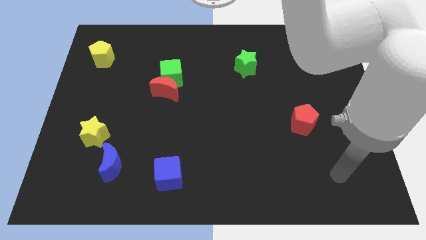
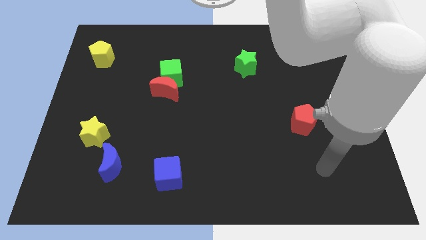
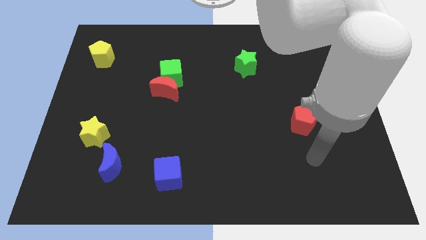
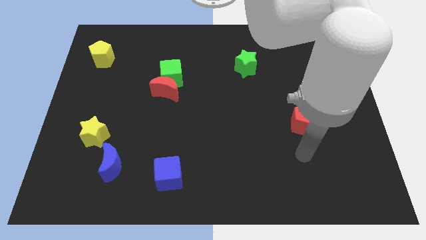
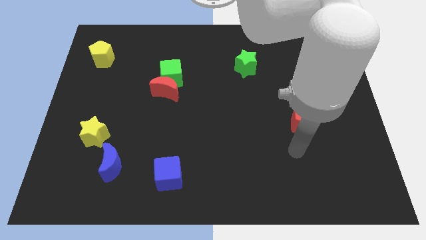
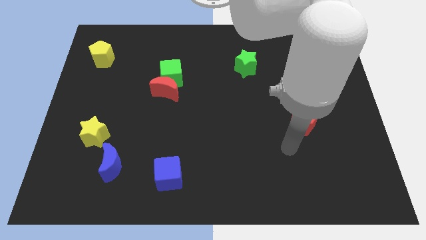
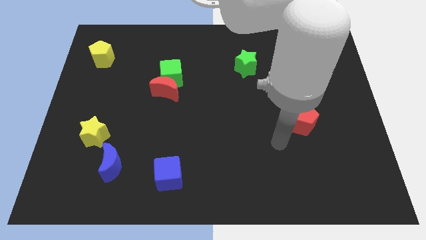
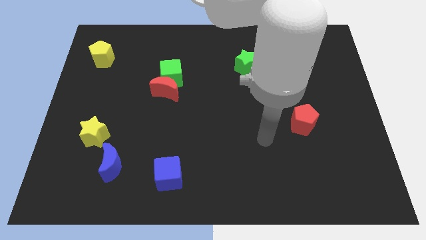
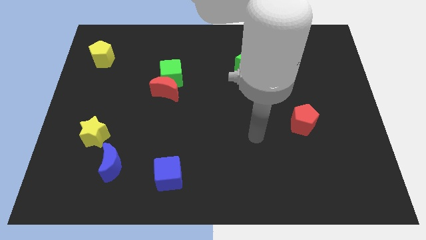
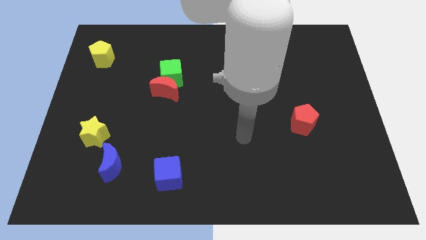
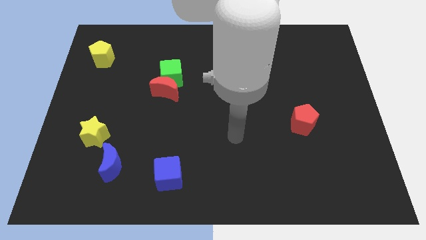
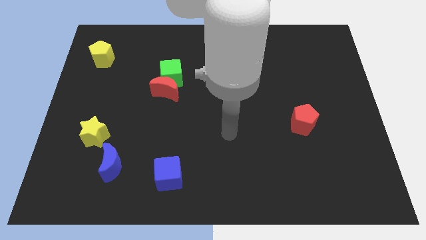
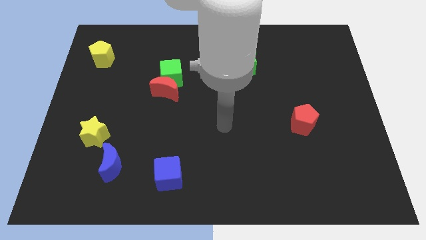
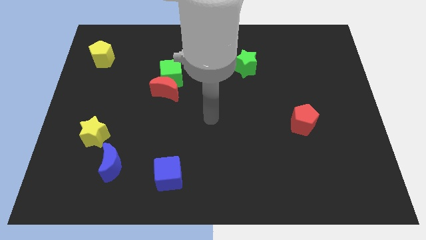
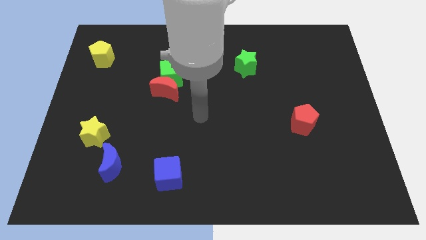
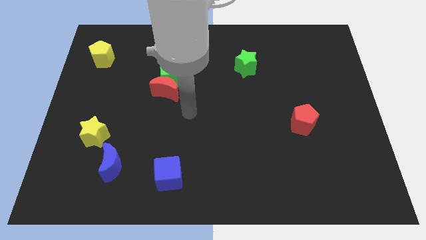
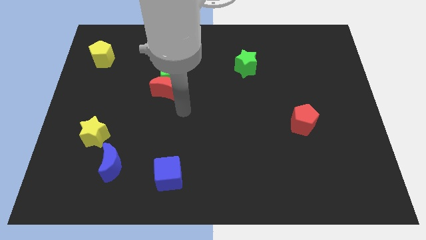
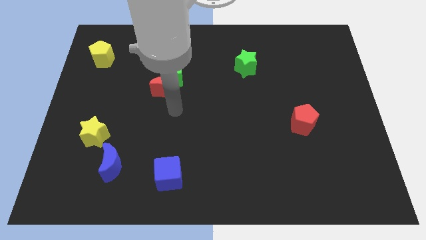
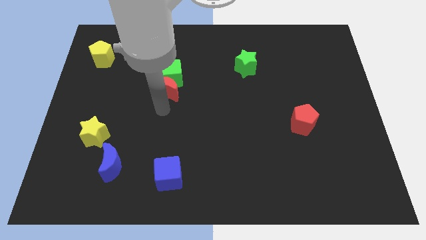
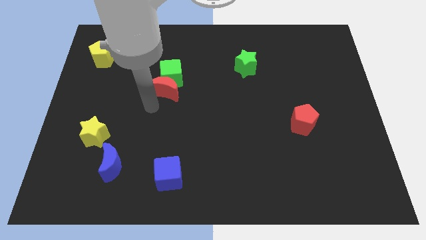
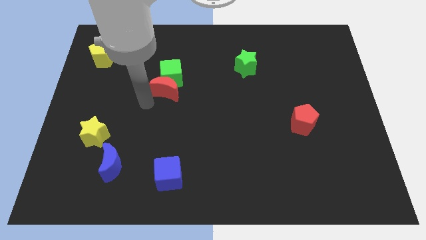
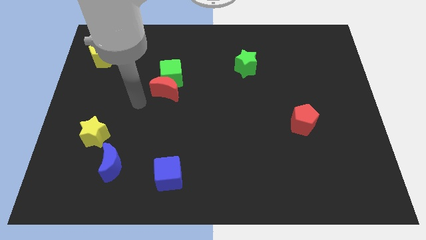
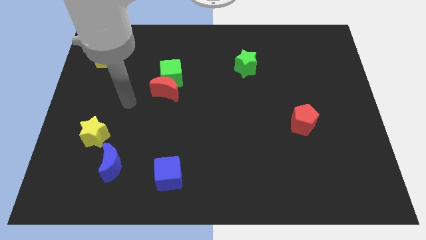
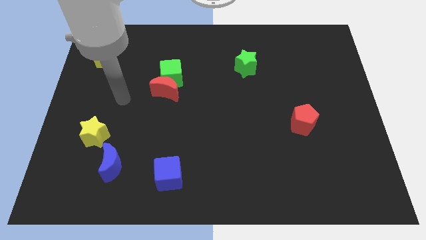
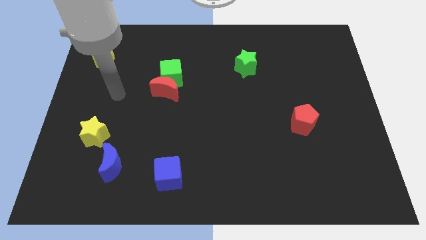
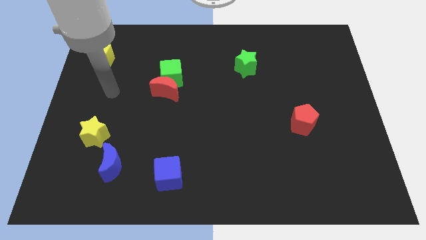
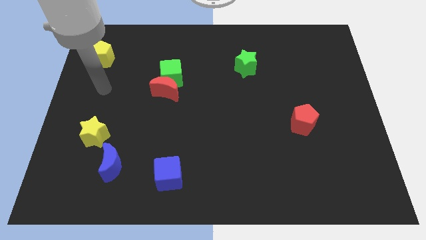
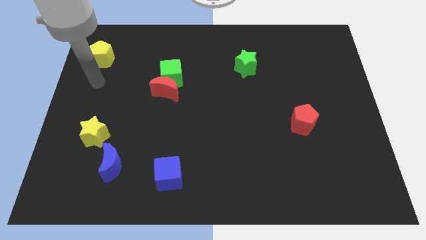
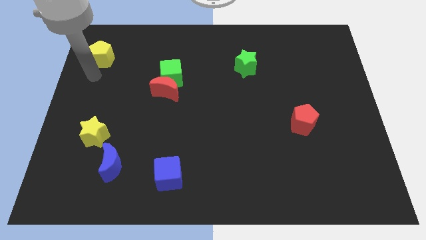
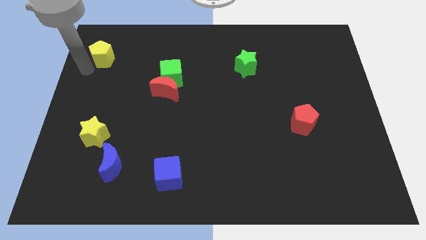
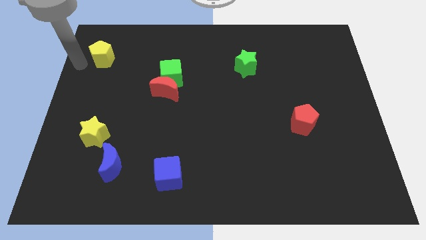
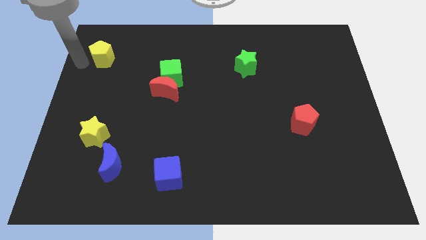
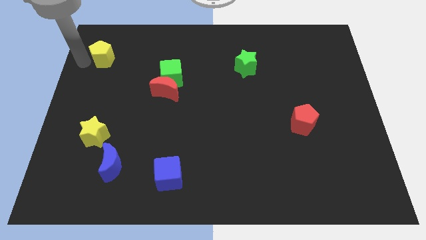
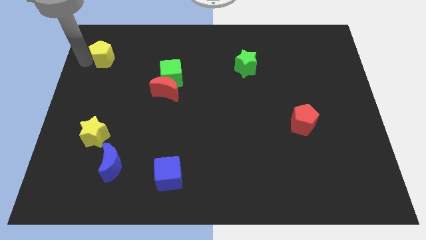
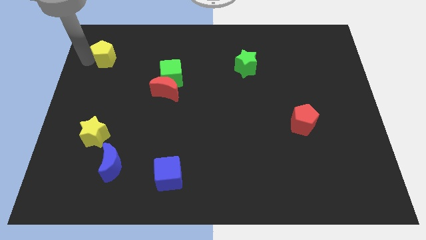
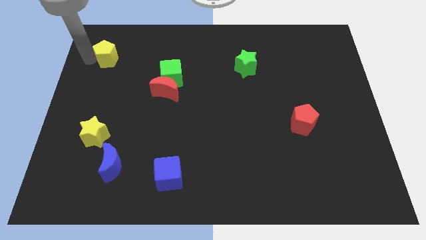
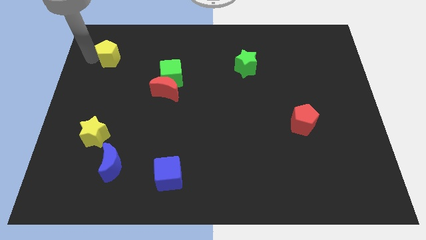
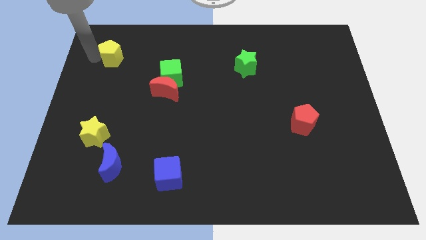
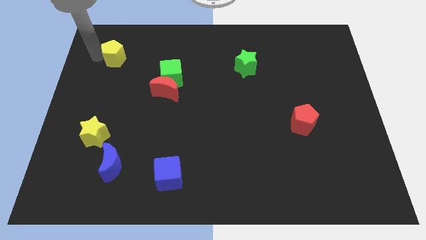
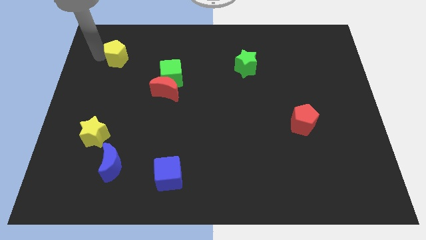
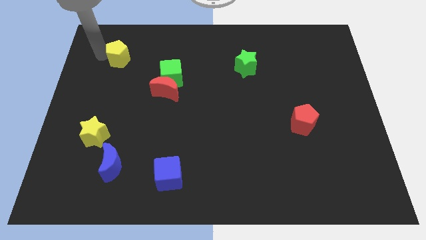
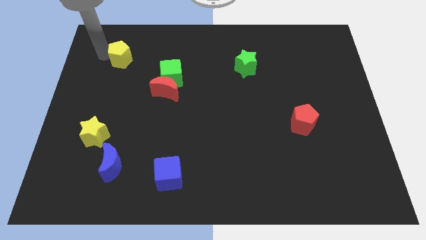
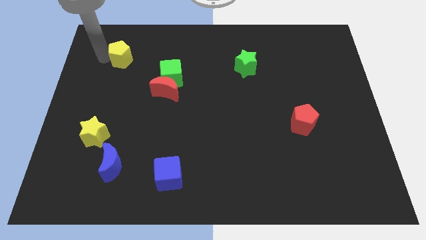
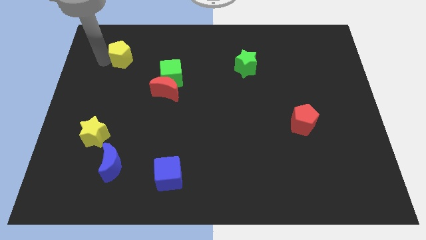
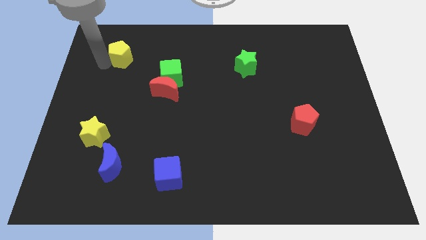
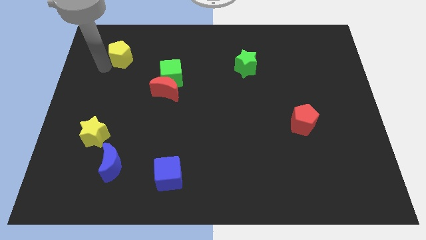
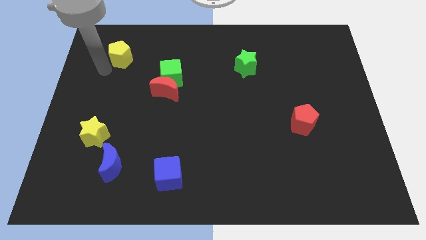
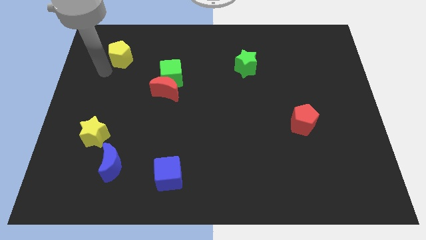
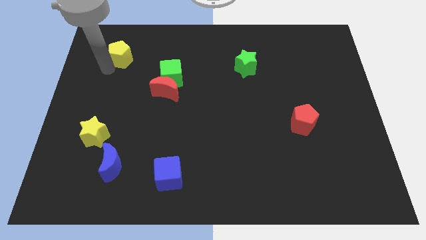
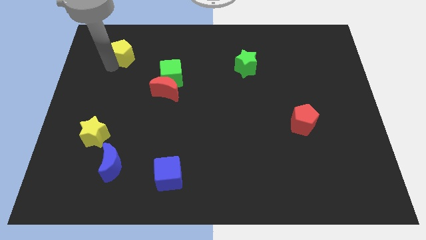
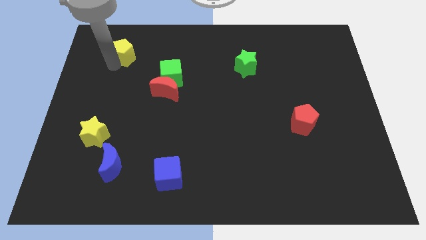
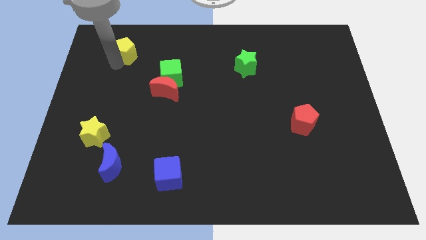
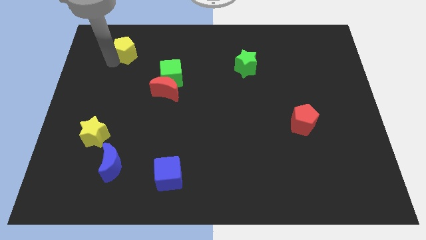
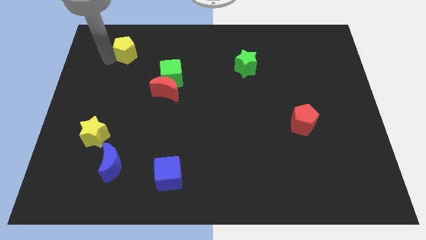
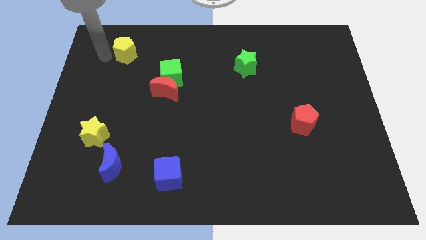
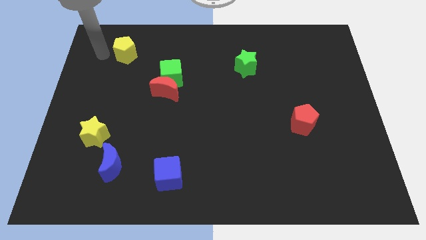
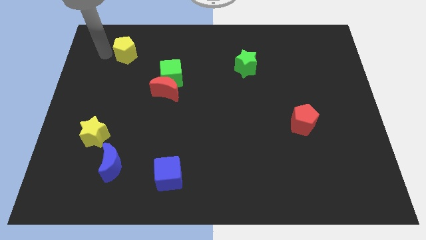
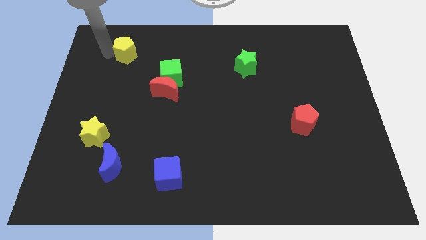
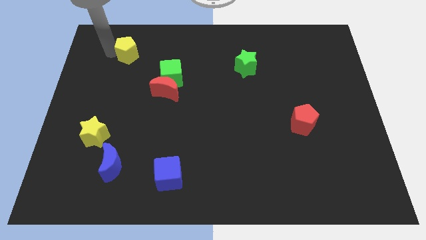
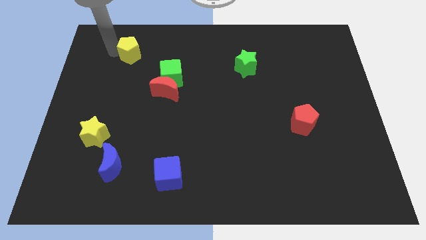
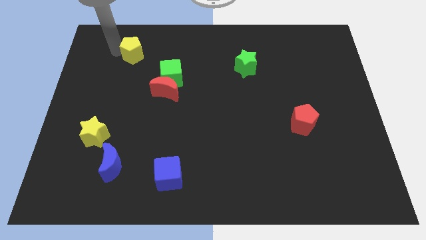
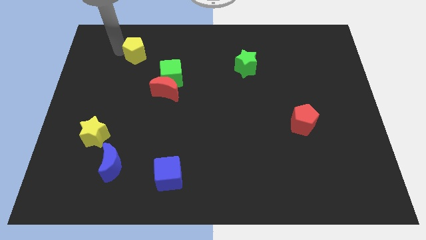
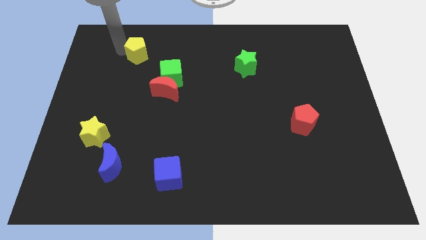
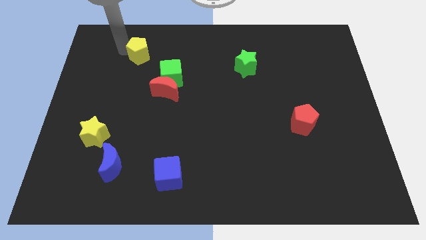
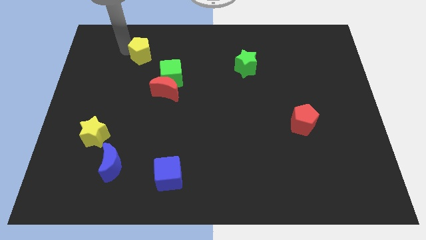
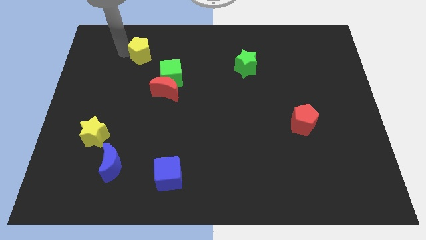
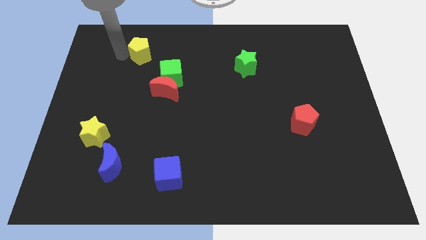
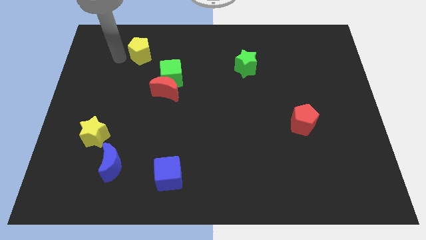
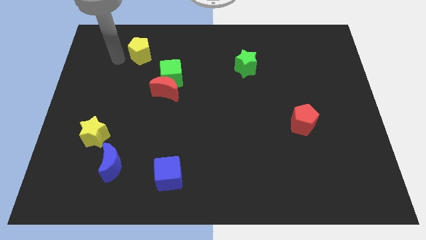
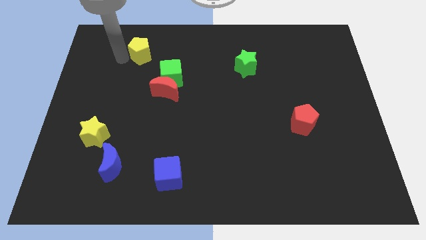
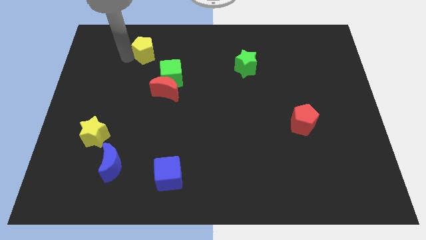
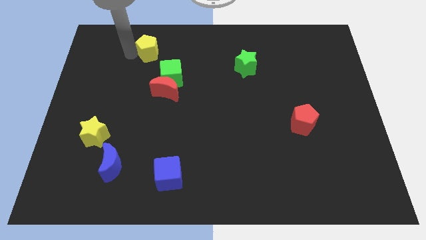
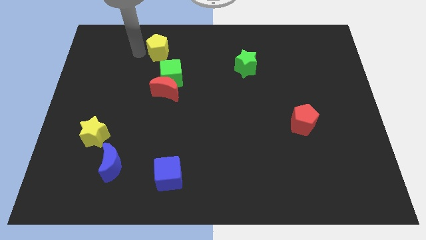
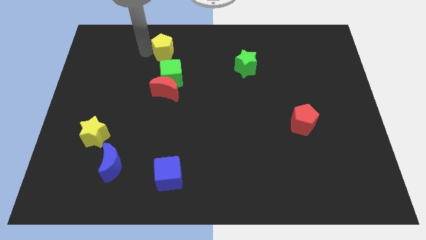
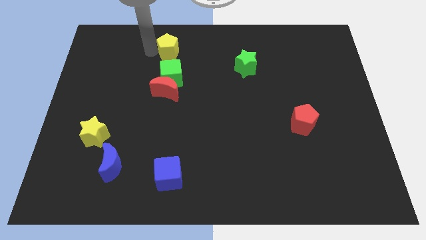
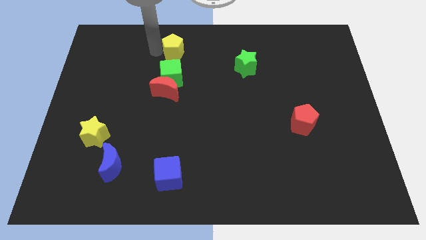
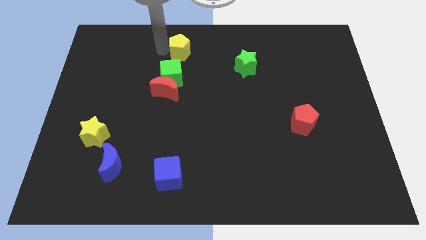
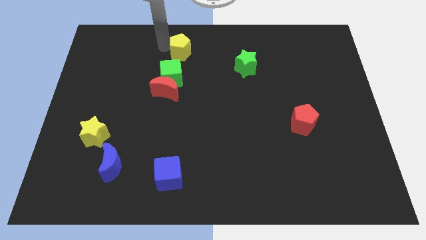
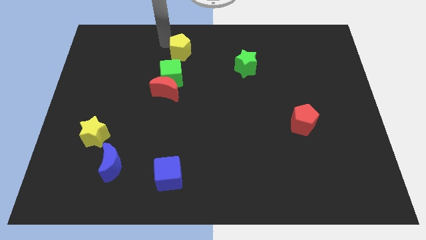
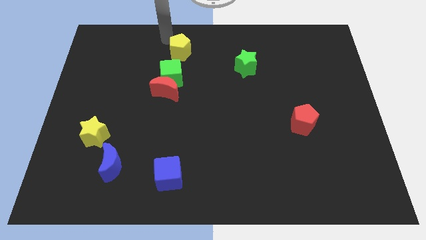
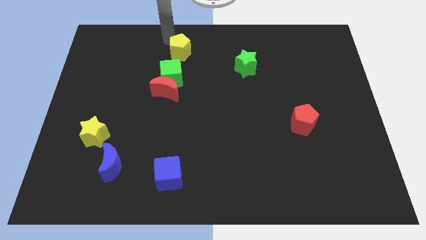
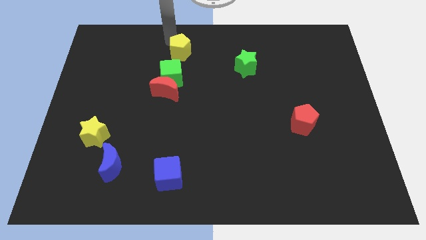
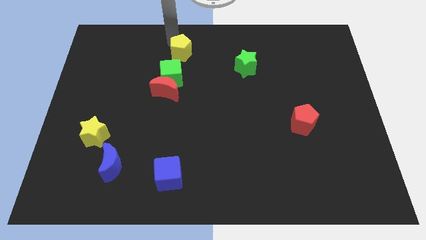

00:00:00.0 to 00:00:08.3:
slide the yellow pentagon to the top right of the green cube
